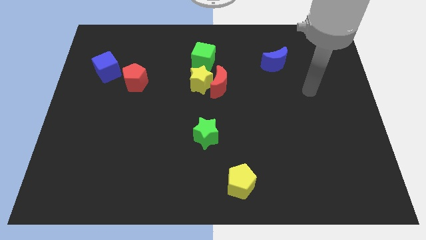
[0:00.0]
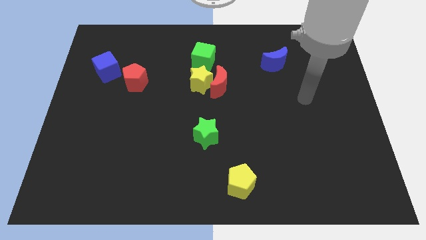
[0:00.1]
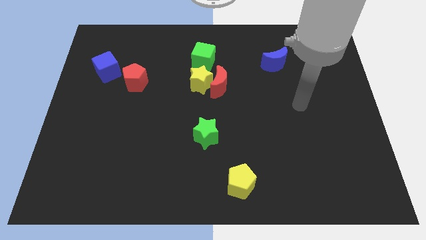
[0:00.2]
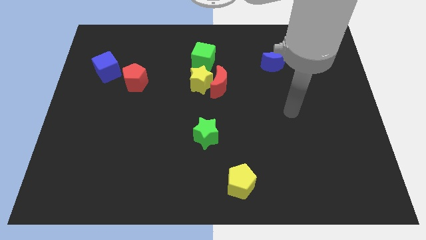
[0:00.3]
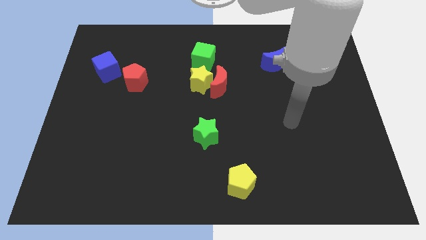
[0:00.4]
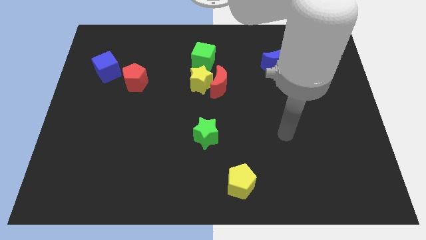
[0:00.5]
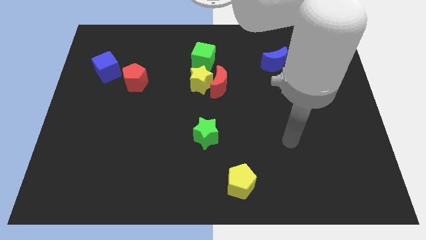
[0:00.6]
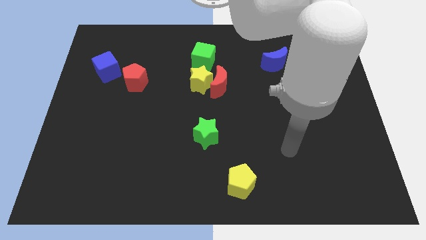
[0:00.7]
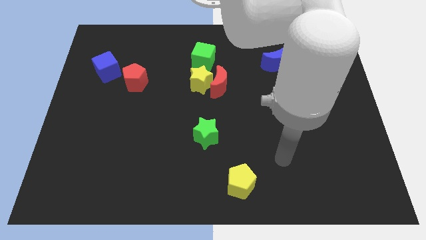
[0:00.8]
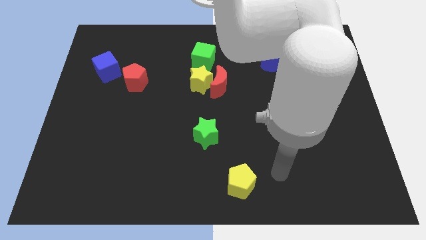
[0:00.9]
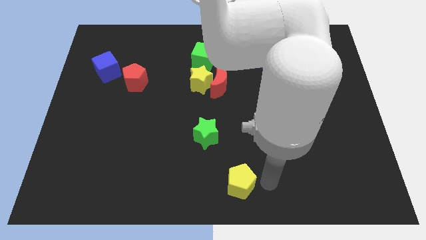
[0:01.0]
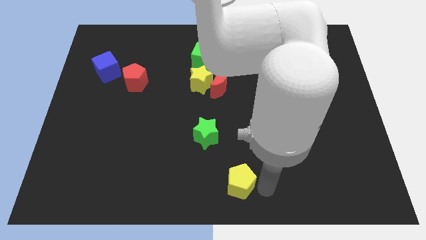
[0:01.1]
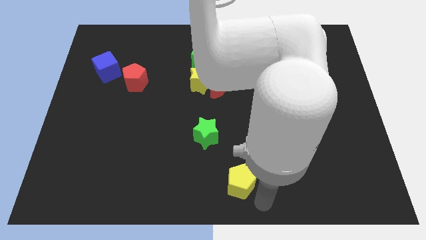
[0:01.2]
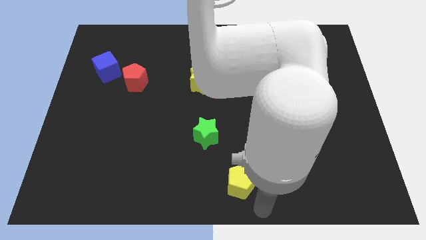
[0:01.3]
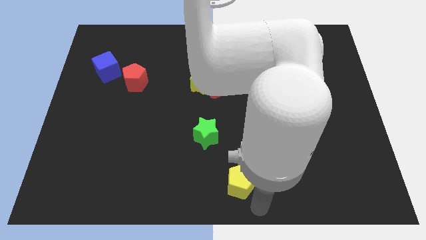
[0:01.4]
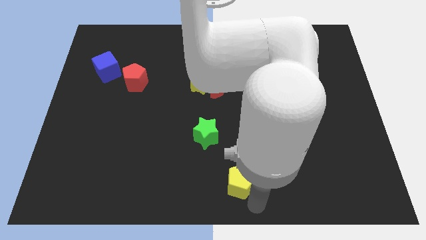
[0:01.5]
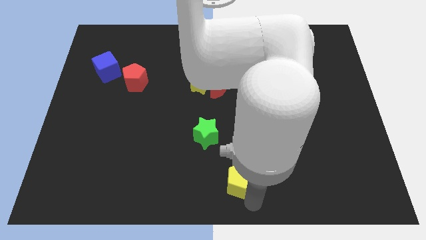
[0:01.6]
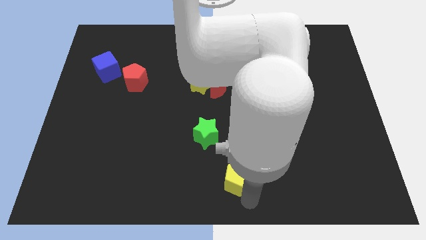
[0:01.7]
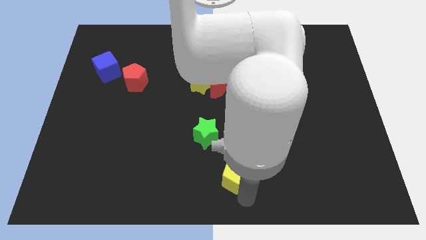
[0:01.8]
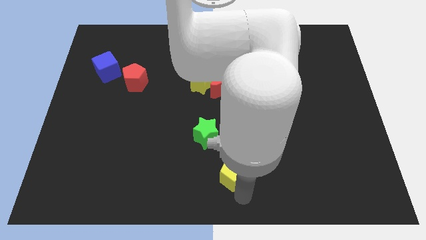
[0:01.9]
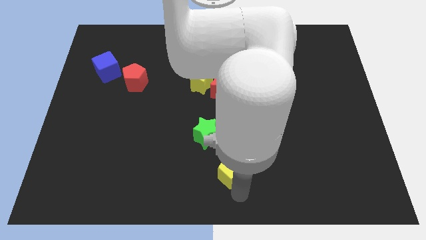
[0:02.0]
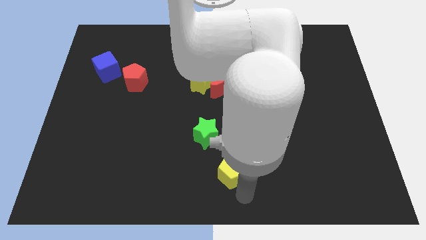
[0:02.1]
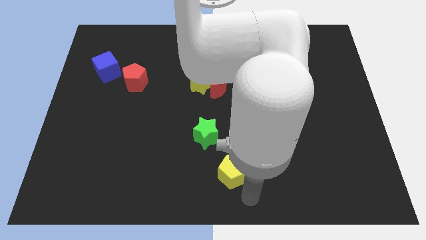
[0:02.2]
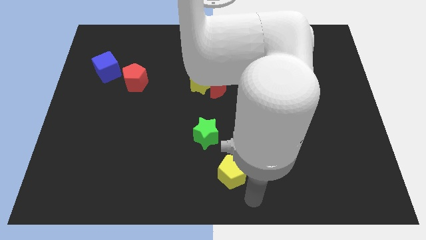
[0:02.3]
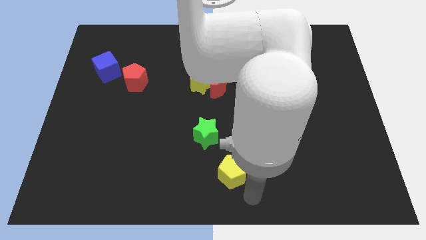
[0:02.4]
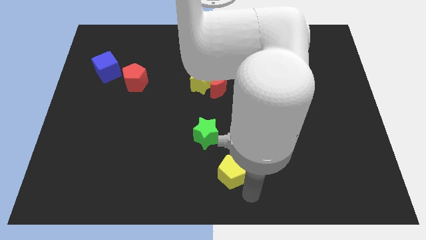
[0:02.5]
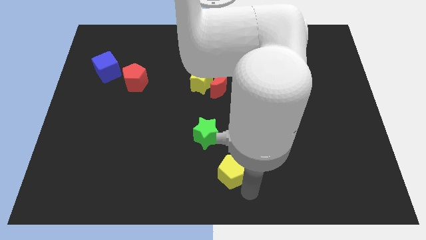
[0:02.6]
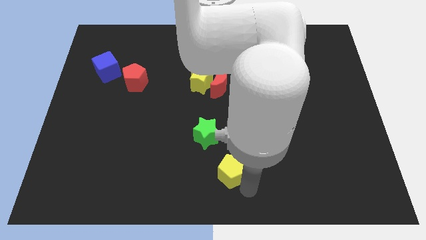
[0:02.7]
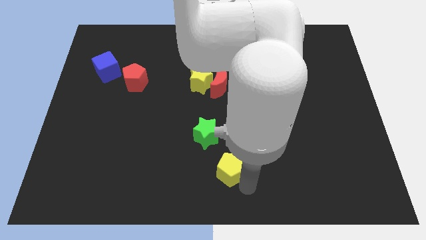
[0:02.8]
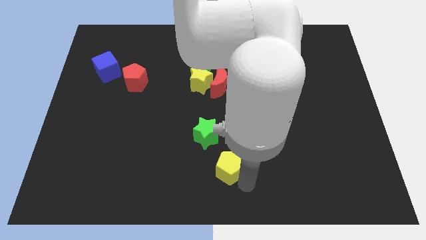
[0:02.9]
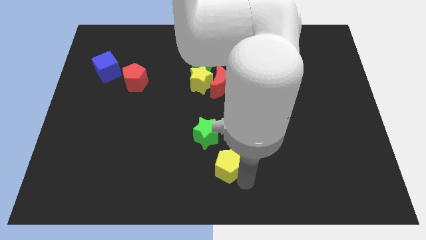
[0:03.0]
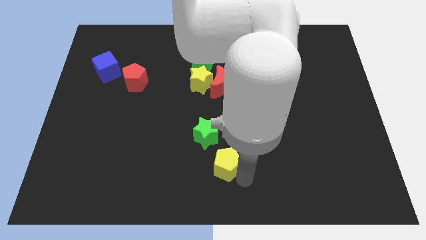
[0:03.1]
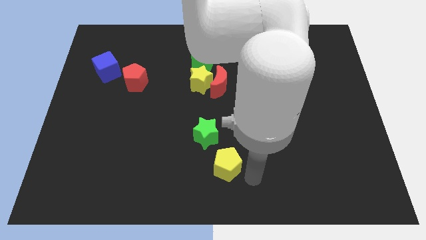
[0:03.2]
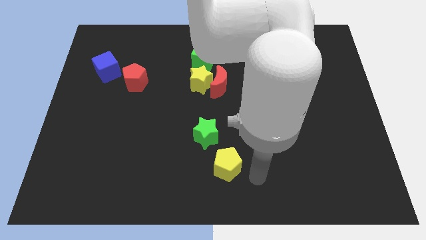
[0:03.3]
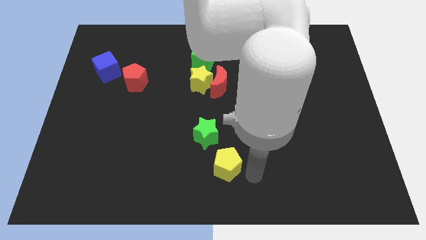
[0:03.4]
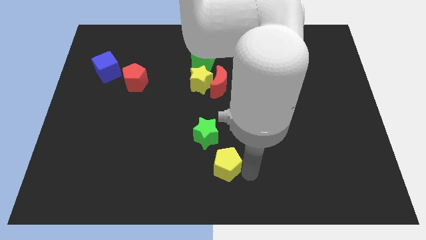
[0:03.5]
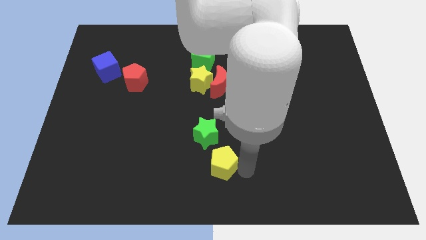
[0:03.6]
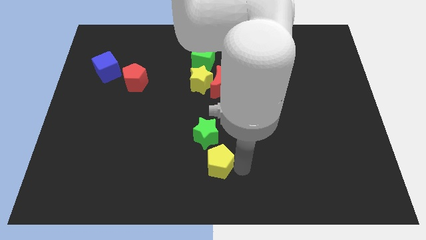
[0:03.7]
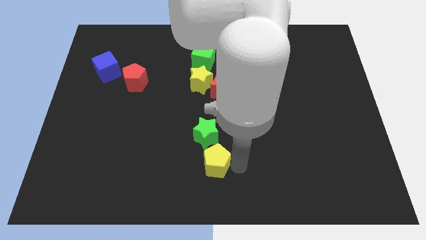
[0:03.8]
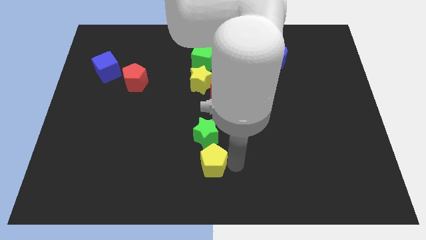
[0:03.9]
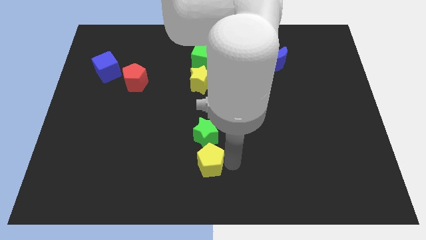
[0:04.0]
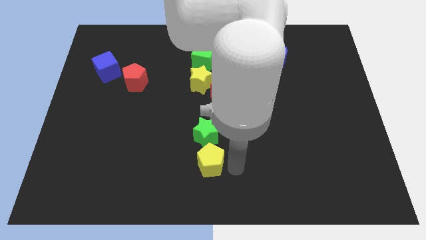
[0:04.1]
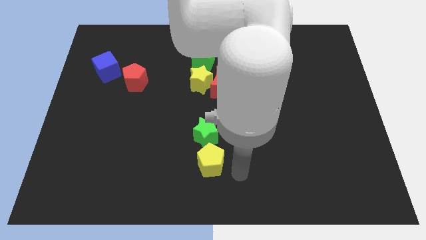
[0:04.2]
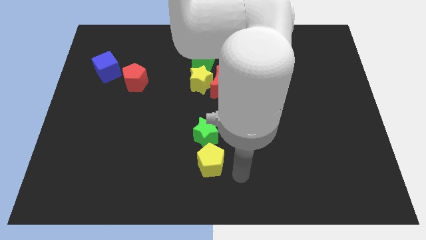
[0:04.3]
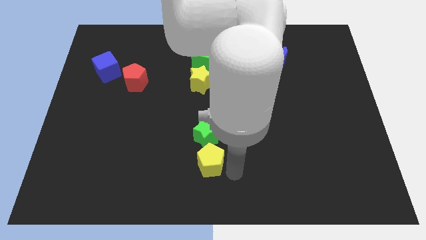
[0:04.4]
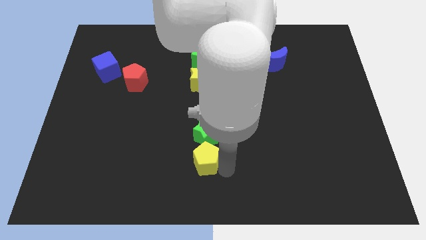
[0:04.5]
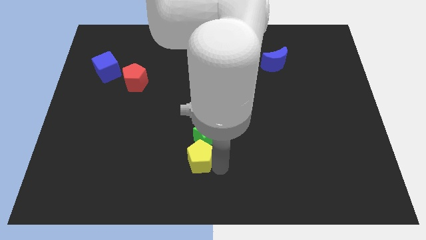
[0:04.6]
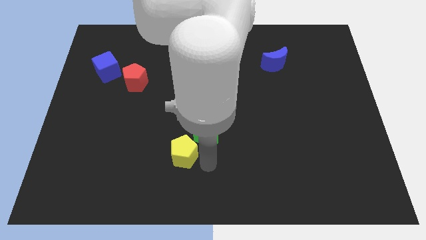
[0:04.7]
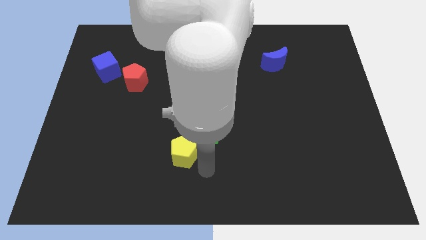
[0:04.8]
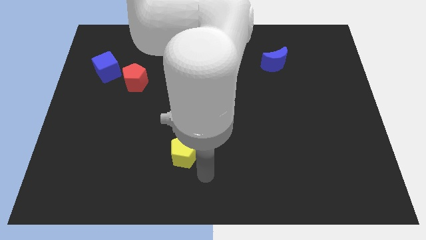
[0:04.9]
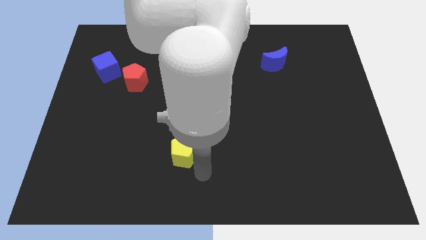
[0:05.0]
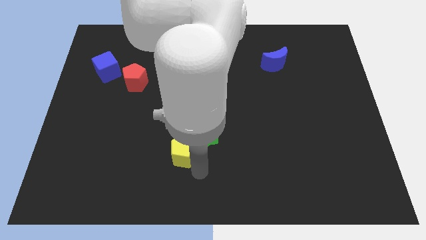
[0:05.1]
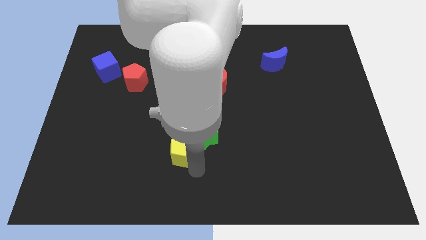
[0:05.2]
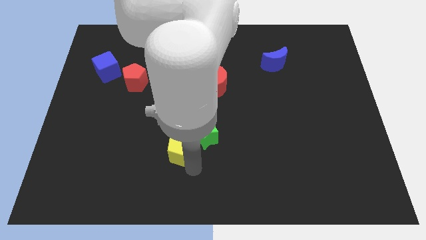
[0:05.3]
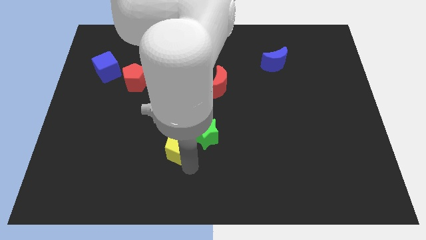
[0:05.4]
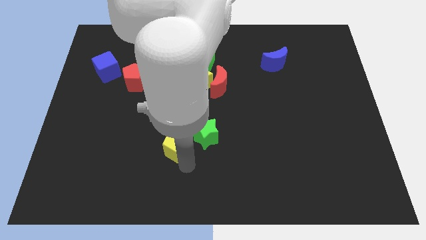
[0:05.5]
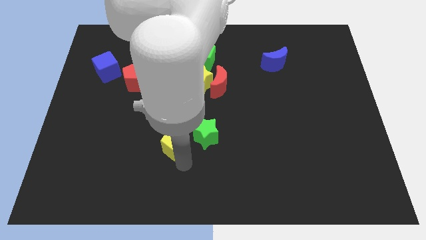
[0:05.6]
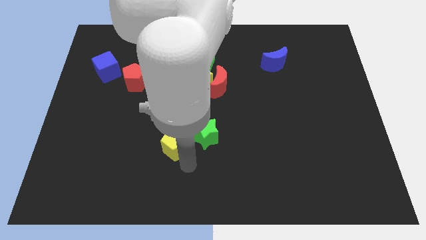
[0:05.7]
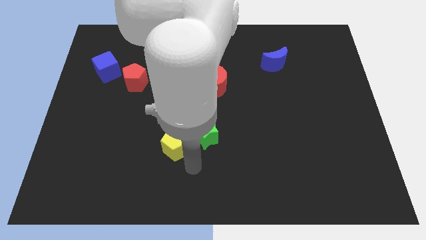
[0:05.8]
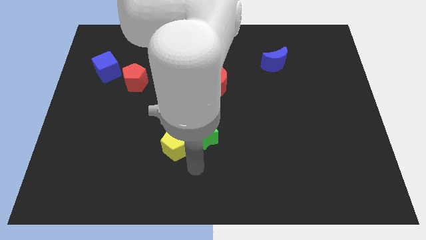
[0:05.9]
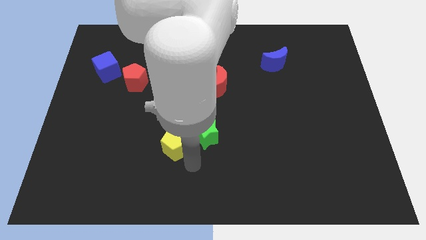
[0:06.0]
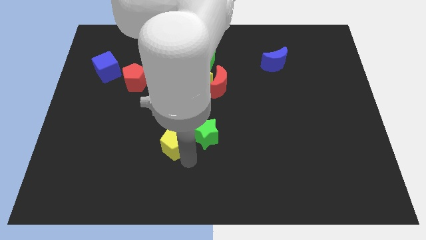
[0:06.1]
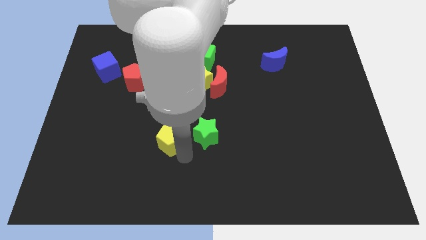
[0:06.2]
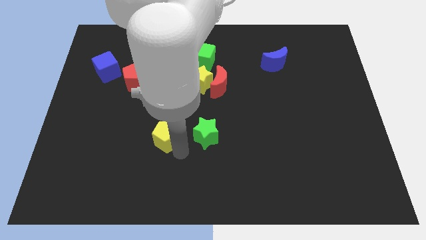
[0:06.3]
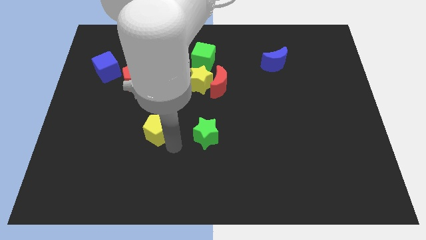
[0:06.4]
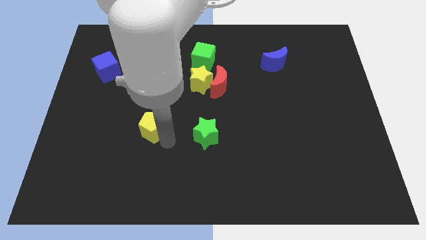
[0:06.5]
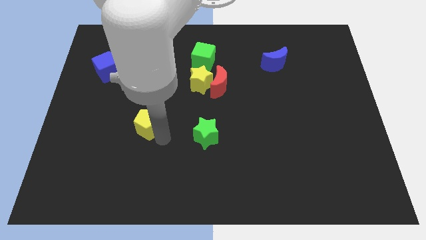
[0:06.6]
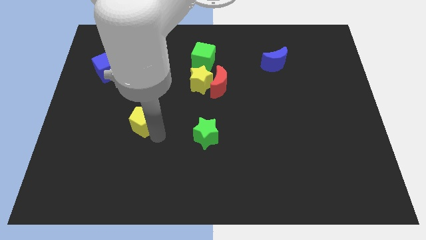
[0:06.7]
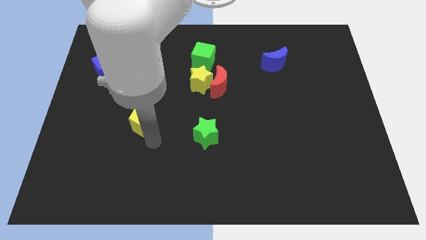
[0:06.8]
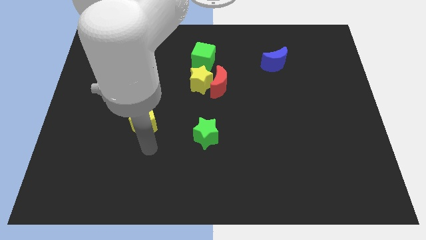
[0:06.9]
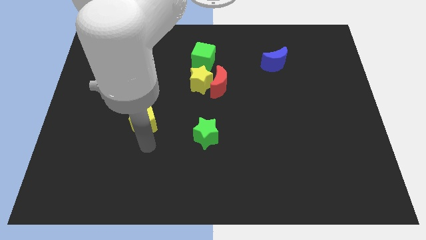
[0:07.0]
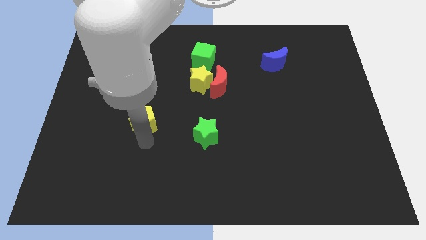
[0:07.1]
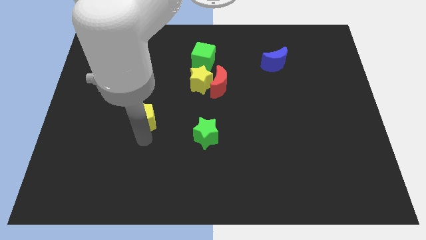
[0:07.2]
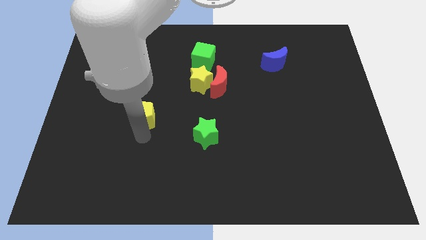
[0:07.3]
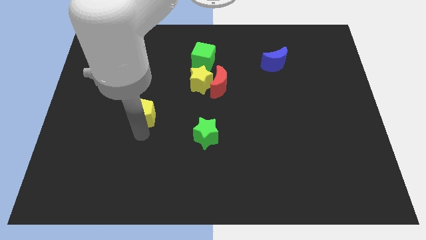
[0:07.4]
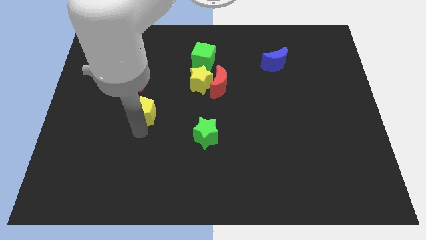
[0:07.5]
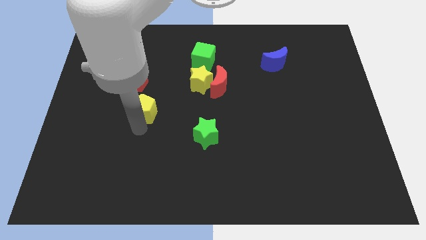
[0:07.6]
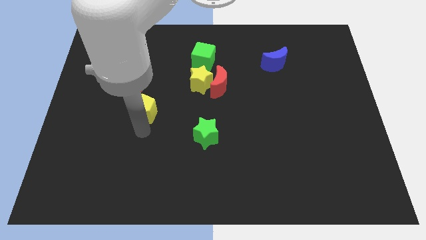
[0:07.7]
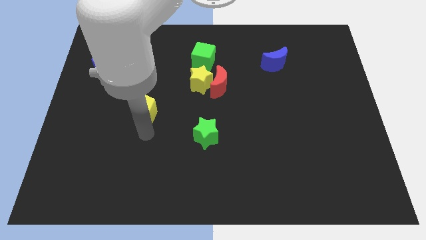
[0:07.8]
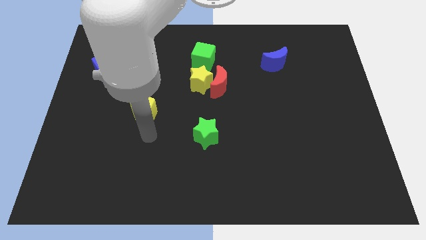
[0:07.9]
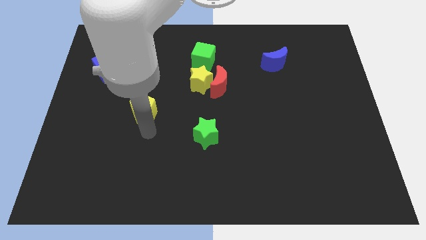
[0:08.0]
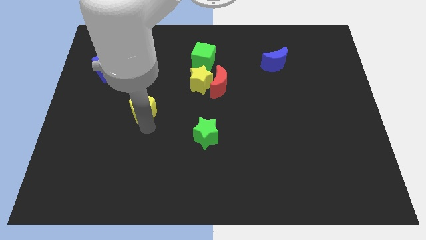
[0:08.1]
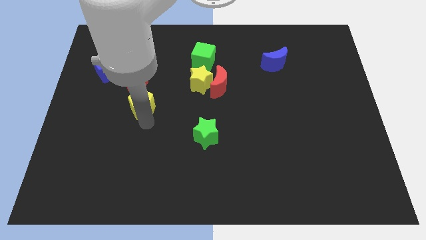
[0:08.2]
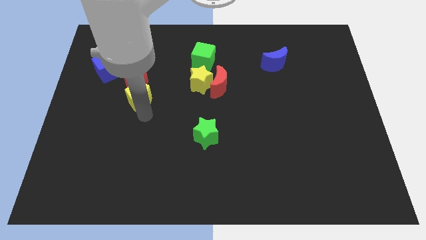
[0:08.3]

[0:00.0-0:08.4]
push the yellow pentagon next to the red pentagon
